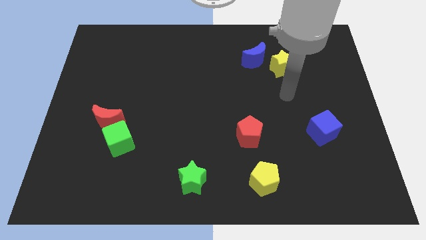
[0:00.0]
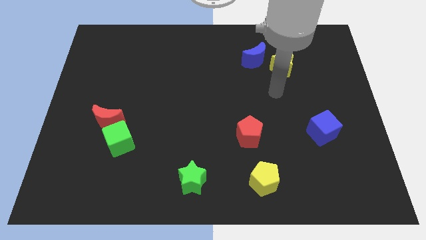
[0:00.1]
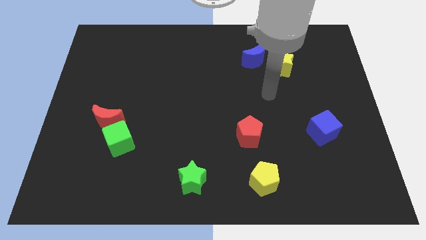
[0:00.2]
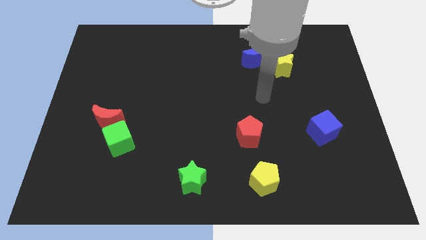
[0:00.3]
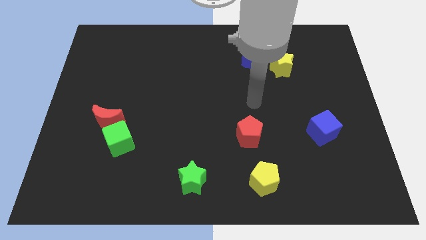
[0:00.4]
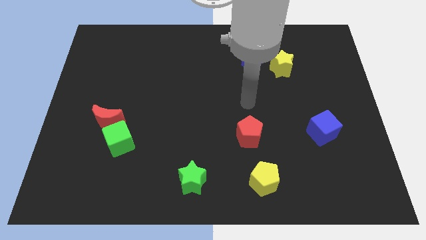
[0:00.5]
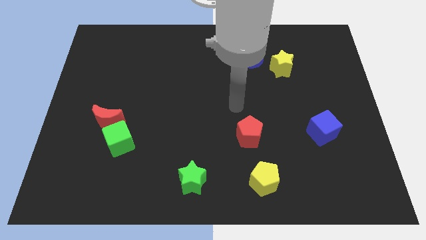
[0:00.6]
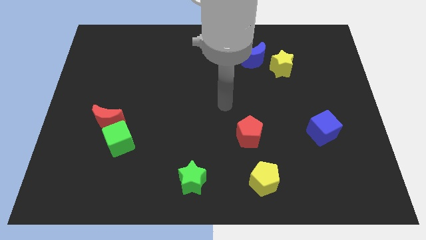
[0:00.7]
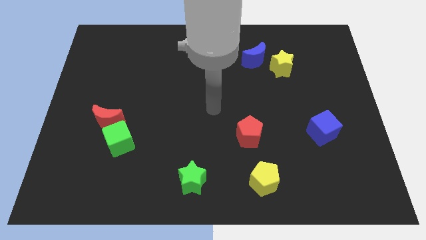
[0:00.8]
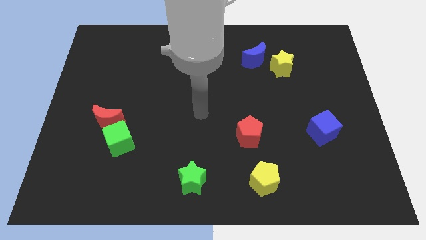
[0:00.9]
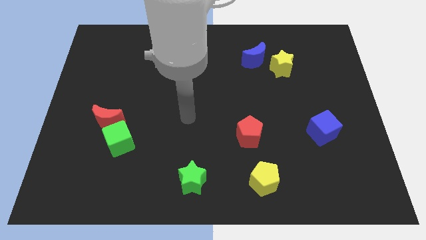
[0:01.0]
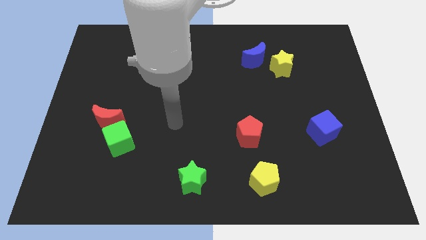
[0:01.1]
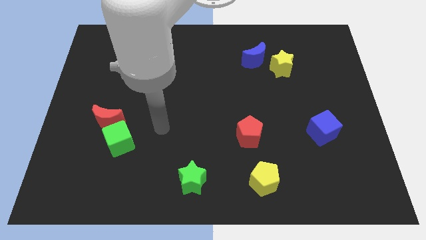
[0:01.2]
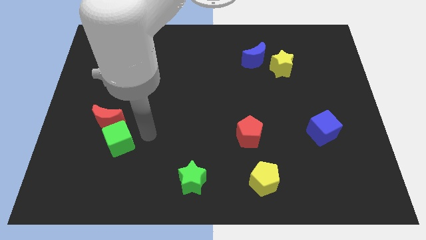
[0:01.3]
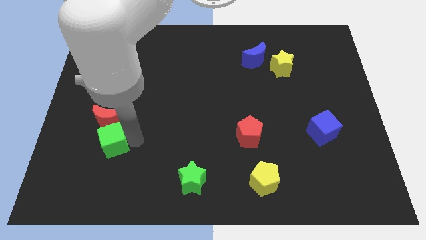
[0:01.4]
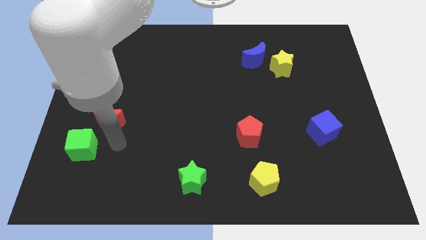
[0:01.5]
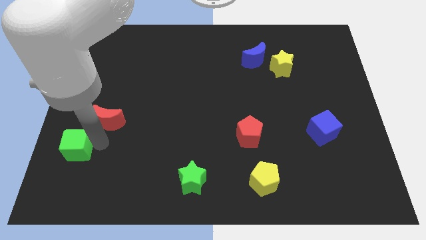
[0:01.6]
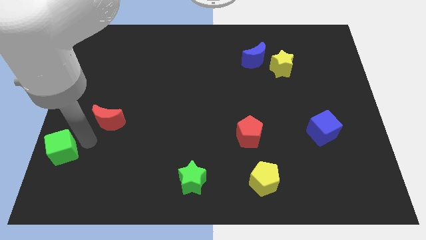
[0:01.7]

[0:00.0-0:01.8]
separate the red moon from the green cube

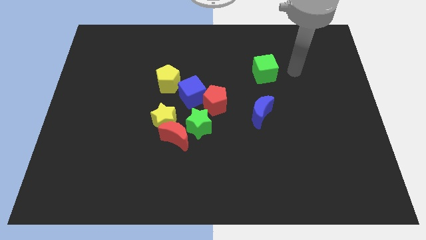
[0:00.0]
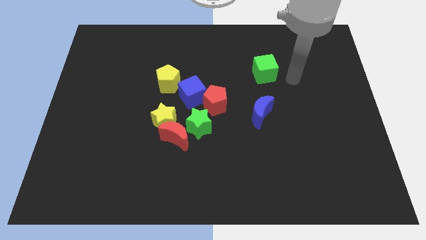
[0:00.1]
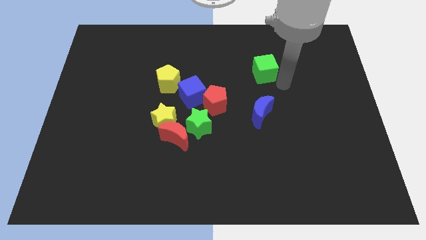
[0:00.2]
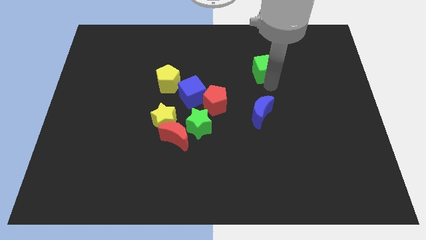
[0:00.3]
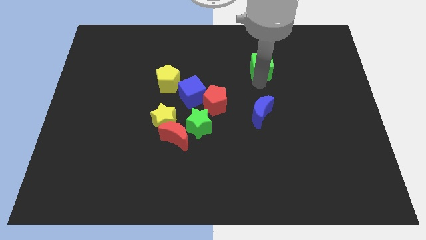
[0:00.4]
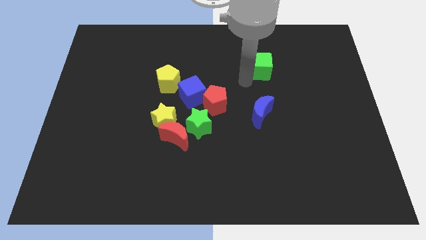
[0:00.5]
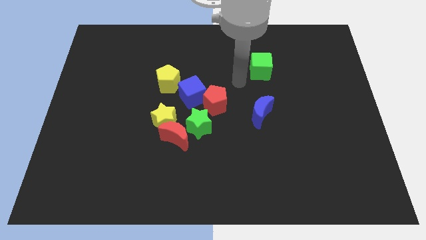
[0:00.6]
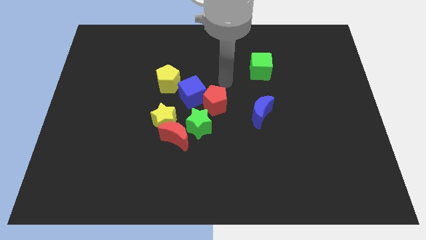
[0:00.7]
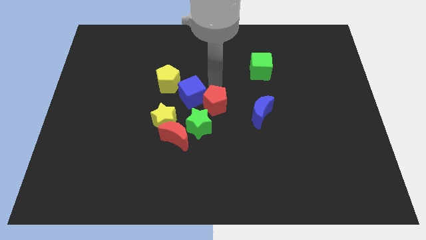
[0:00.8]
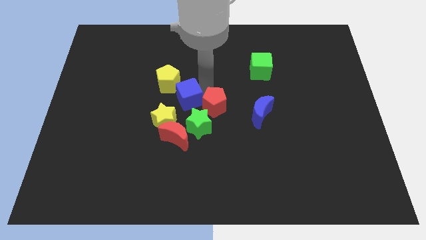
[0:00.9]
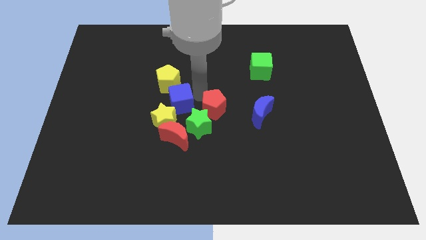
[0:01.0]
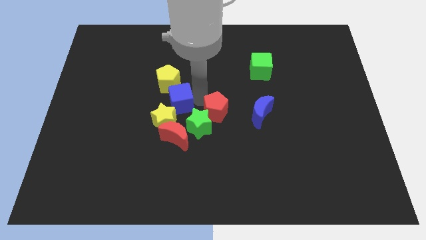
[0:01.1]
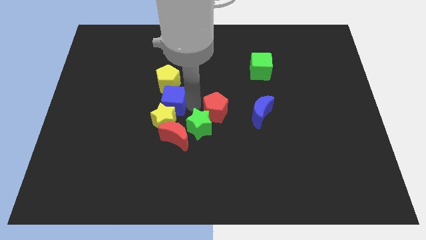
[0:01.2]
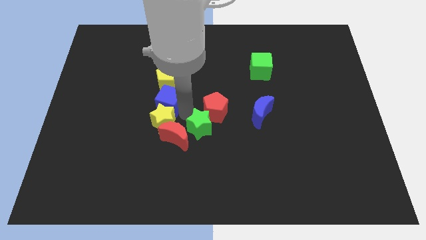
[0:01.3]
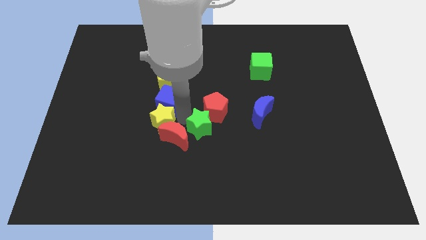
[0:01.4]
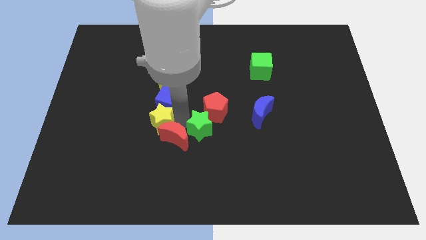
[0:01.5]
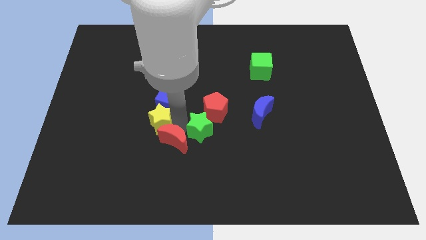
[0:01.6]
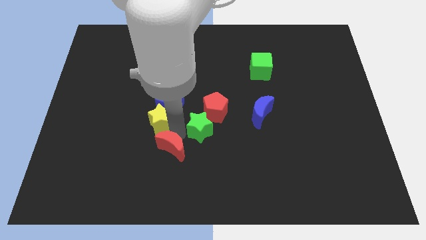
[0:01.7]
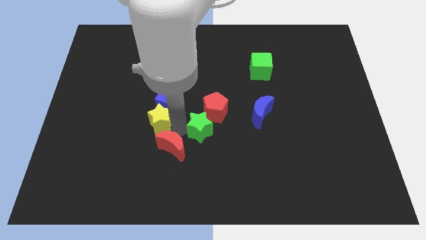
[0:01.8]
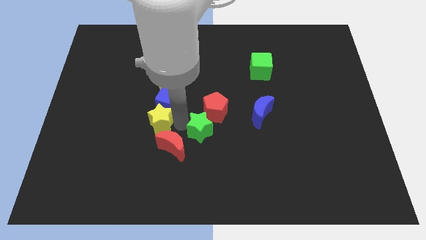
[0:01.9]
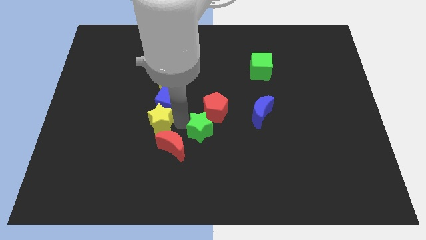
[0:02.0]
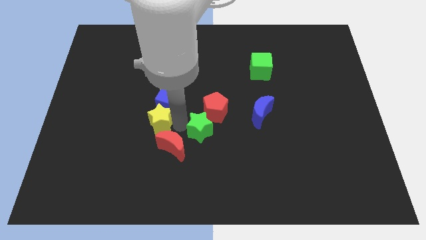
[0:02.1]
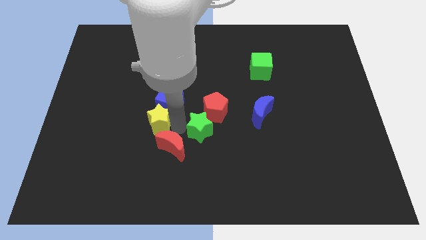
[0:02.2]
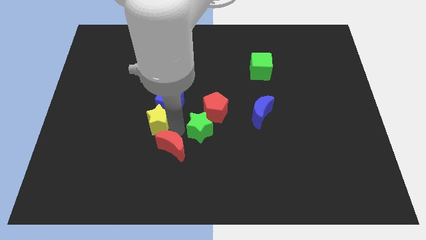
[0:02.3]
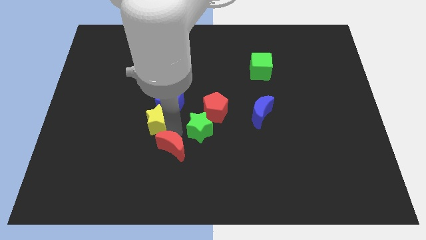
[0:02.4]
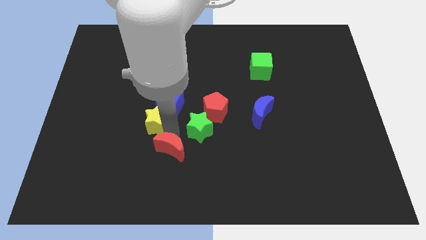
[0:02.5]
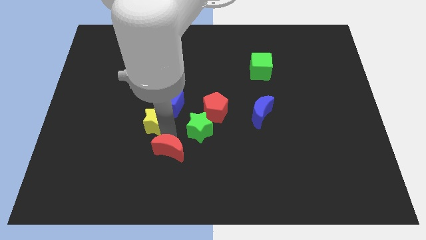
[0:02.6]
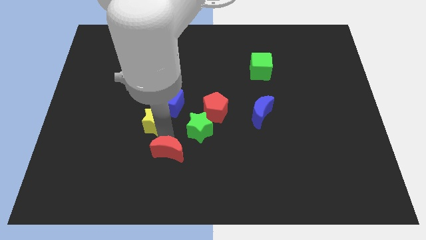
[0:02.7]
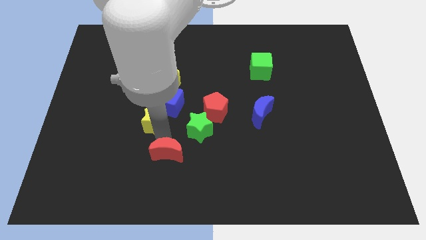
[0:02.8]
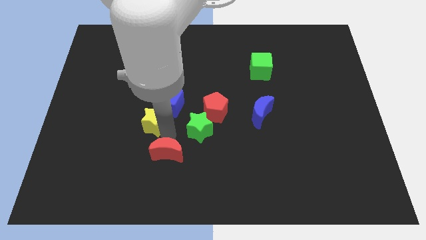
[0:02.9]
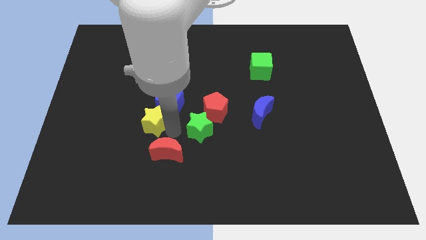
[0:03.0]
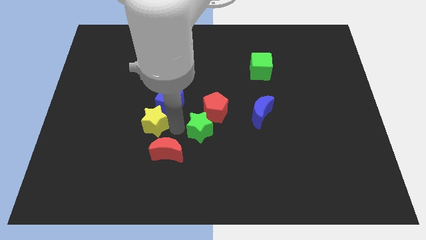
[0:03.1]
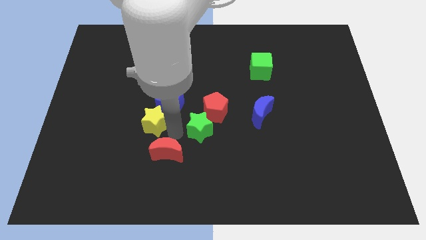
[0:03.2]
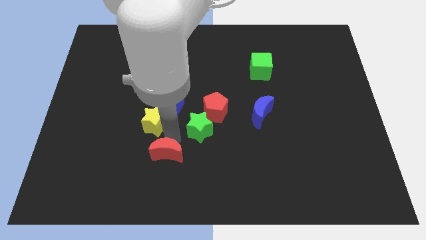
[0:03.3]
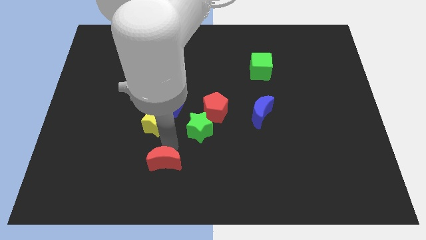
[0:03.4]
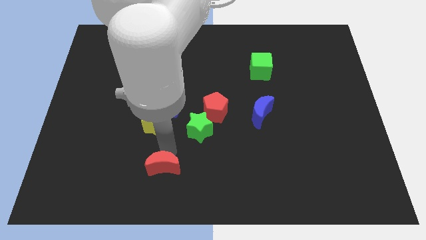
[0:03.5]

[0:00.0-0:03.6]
separate the red moon from the yellow star and green star

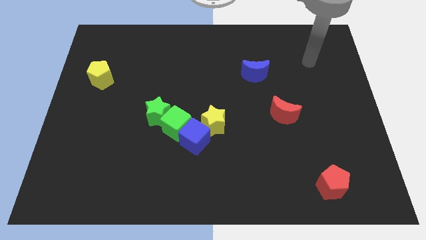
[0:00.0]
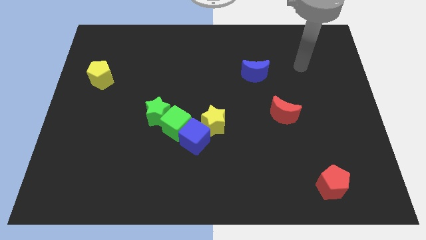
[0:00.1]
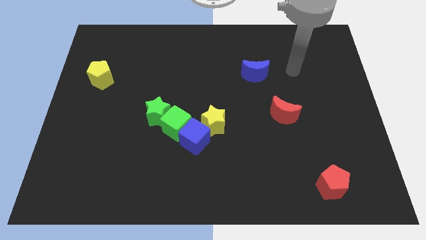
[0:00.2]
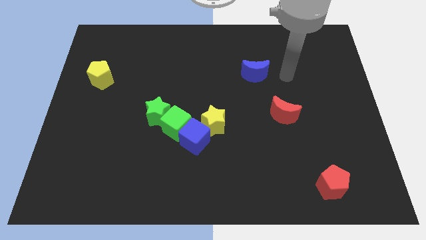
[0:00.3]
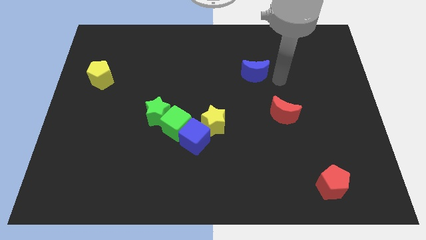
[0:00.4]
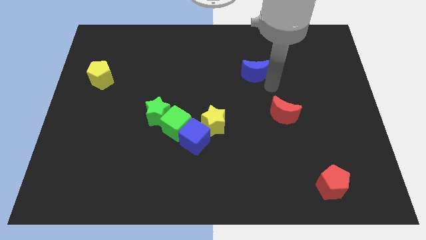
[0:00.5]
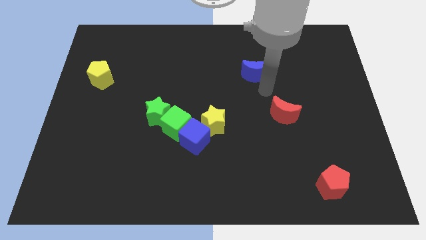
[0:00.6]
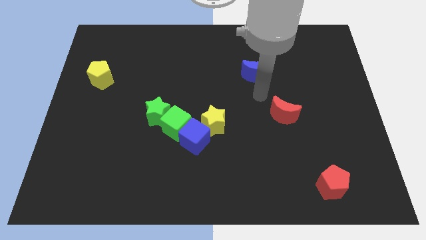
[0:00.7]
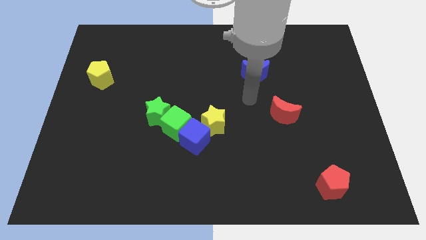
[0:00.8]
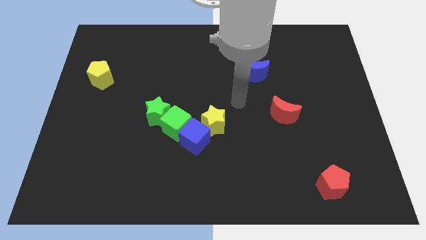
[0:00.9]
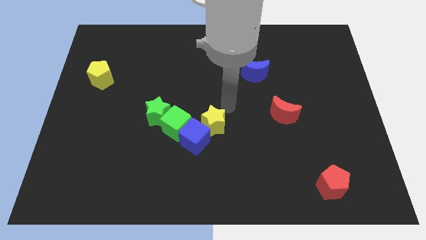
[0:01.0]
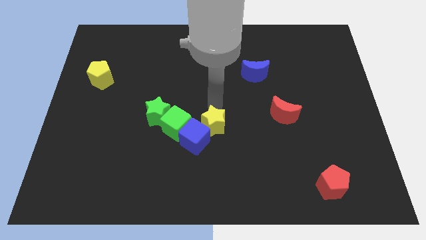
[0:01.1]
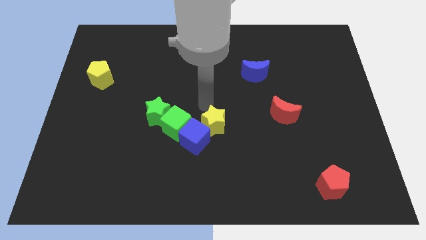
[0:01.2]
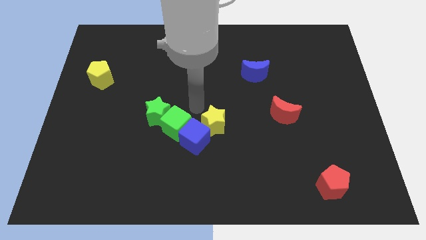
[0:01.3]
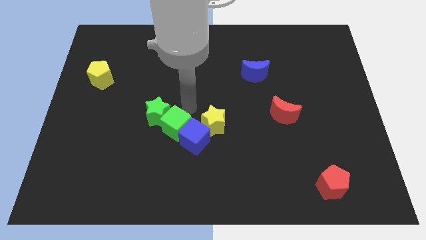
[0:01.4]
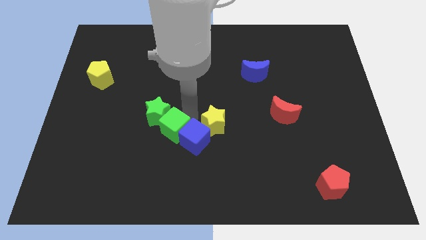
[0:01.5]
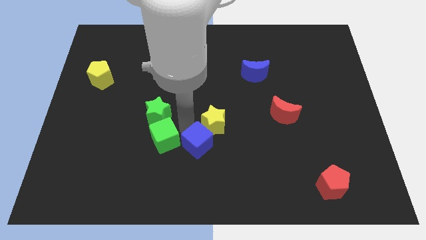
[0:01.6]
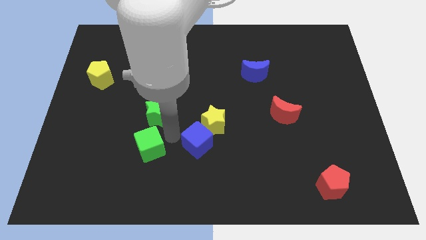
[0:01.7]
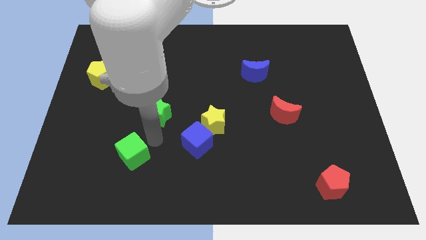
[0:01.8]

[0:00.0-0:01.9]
move the green star away from the green cube

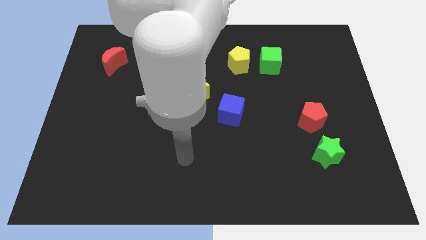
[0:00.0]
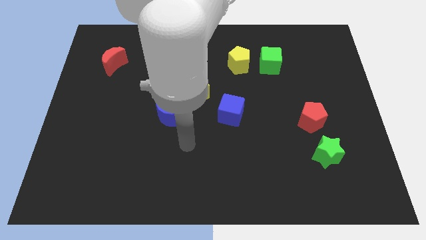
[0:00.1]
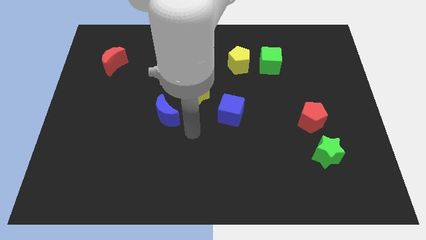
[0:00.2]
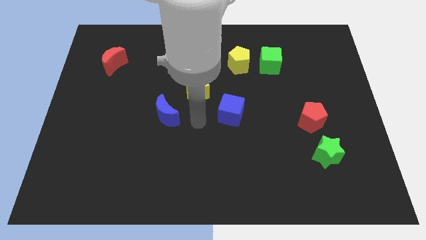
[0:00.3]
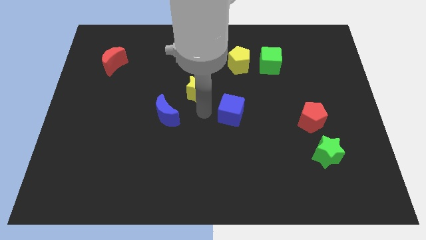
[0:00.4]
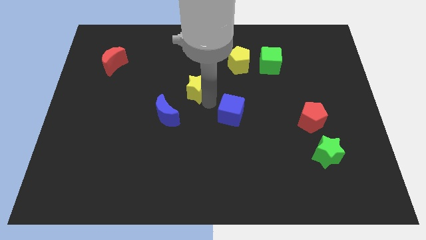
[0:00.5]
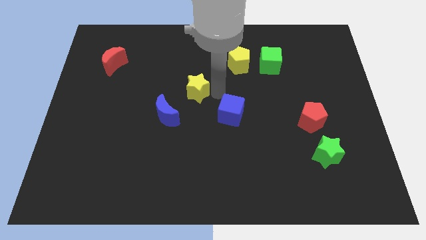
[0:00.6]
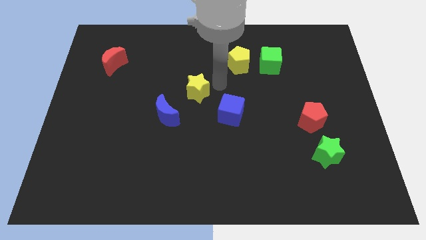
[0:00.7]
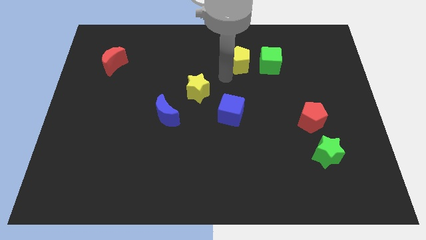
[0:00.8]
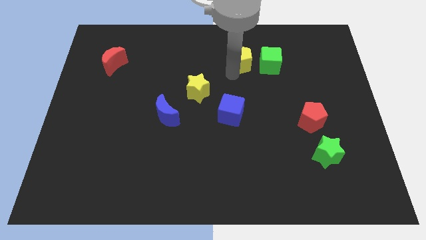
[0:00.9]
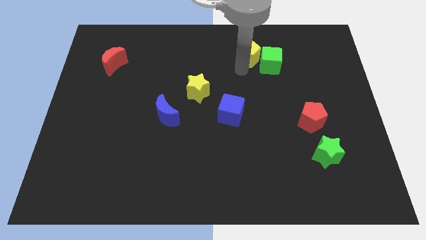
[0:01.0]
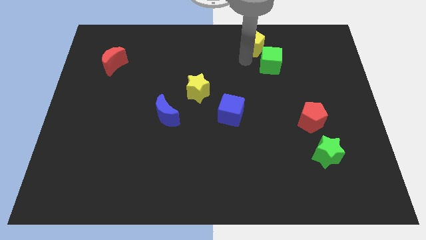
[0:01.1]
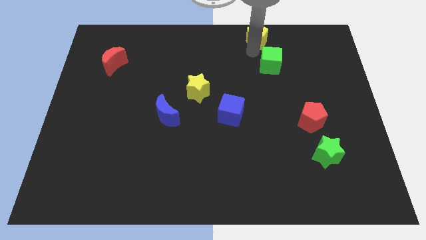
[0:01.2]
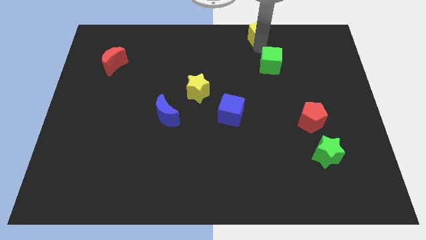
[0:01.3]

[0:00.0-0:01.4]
move the green cube away from the yellow pentagon

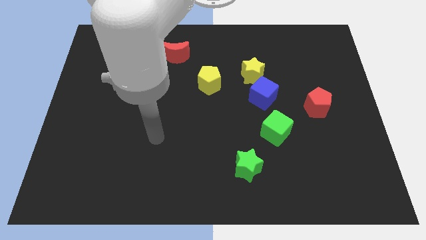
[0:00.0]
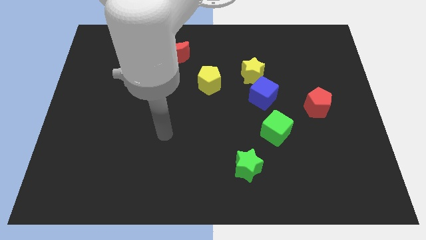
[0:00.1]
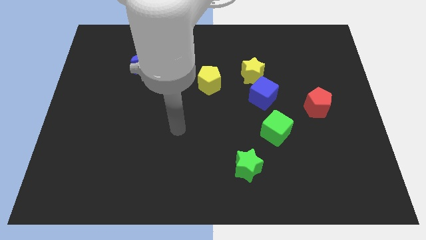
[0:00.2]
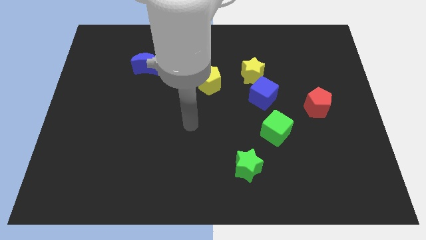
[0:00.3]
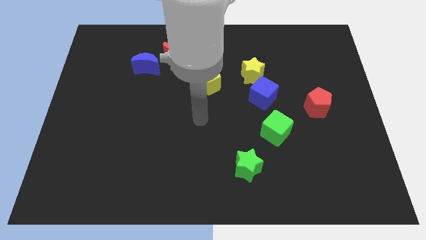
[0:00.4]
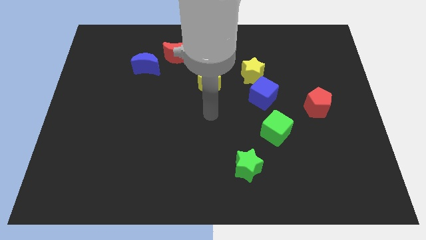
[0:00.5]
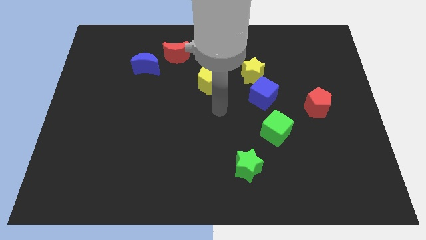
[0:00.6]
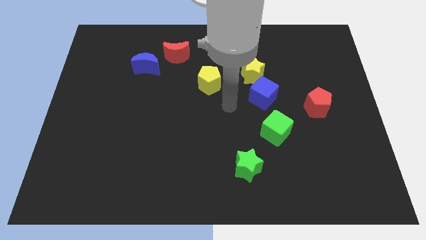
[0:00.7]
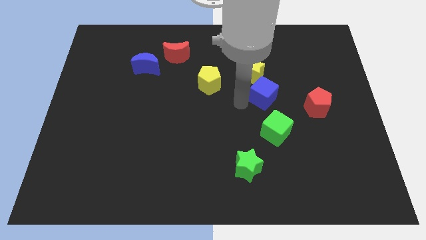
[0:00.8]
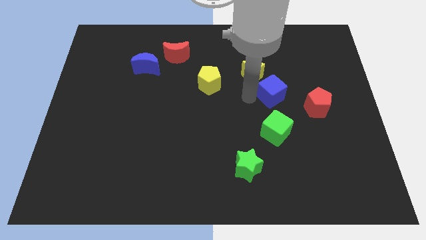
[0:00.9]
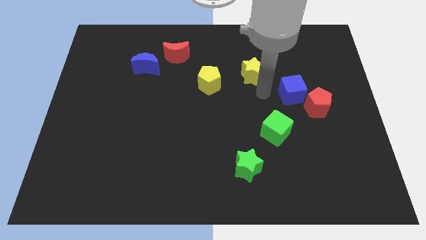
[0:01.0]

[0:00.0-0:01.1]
separate the yellow star from the blue cube
